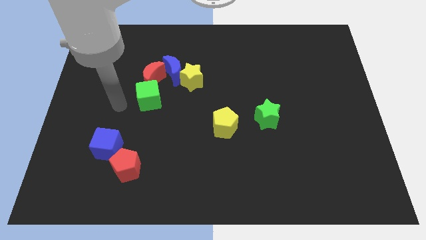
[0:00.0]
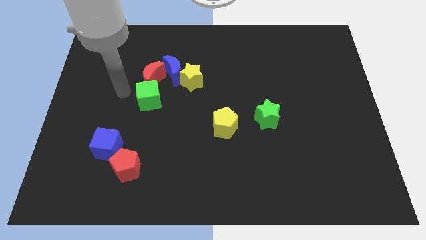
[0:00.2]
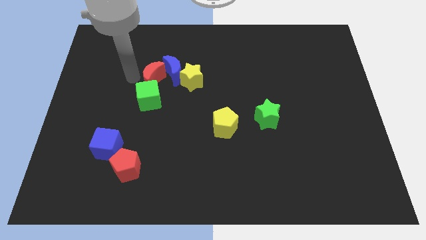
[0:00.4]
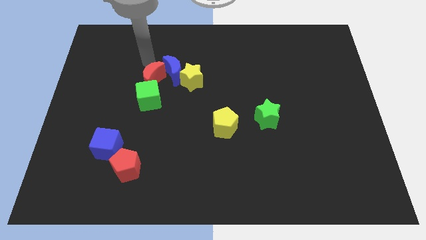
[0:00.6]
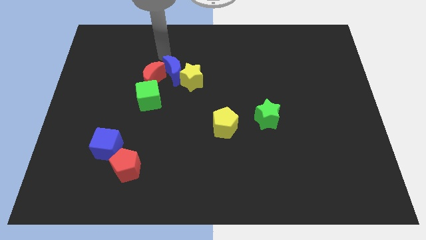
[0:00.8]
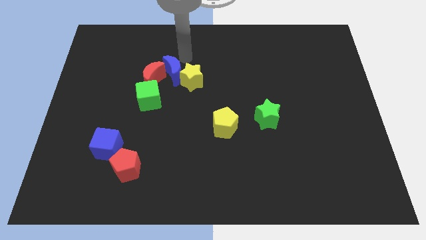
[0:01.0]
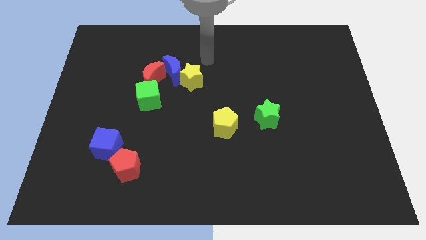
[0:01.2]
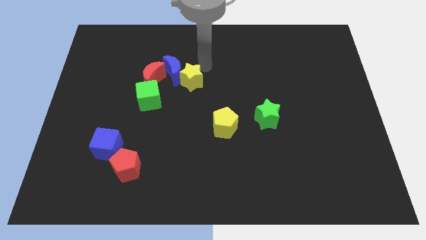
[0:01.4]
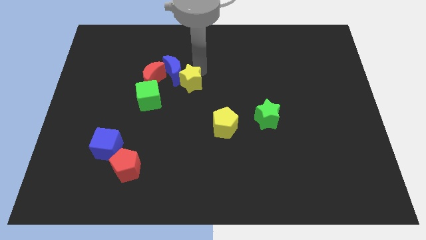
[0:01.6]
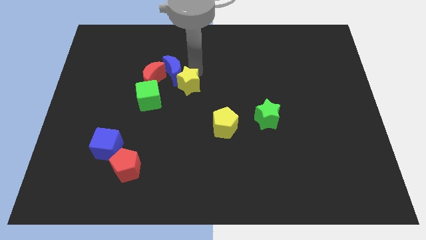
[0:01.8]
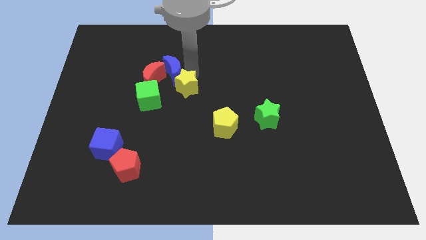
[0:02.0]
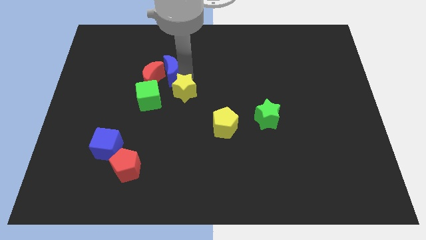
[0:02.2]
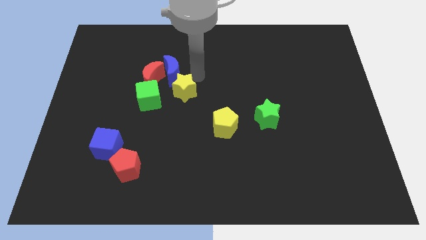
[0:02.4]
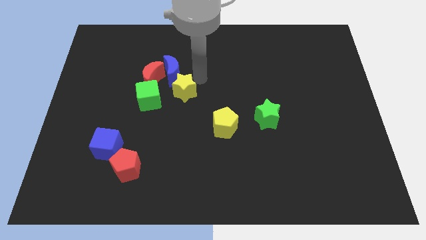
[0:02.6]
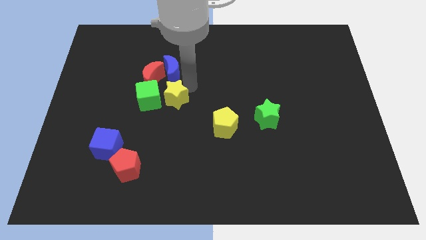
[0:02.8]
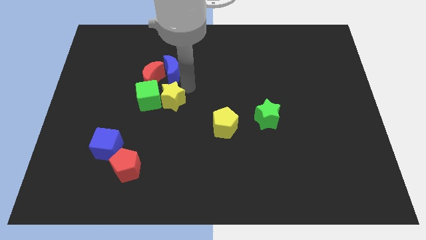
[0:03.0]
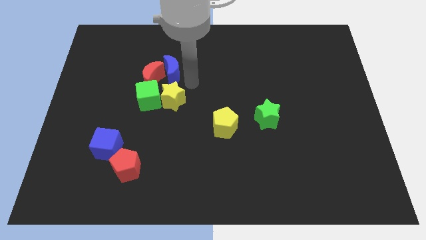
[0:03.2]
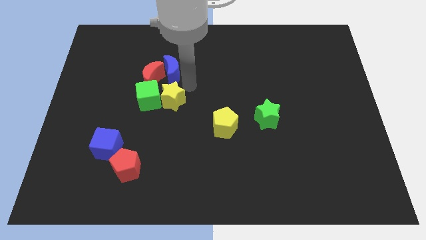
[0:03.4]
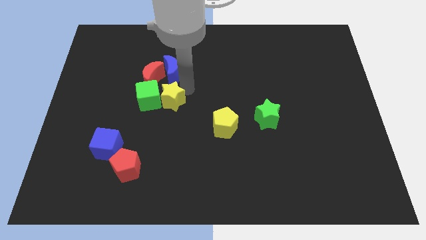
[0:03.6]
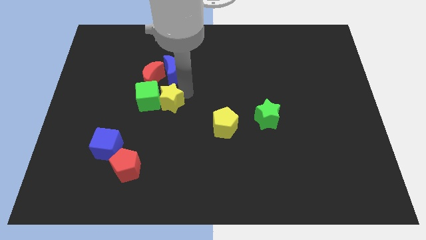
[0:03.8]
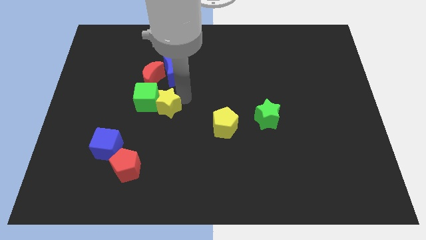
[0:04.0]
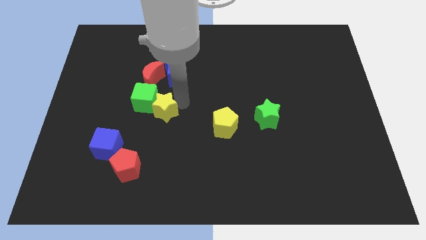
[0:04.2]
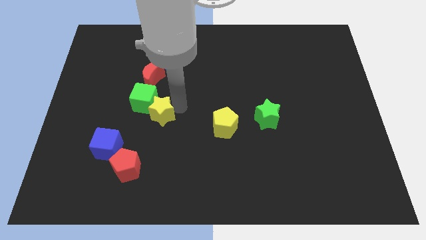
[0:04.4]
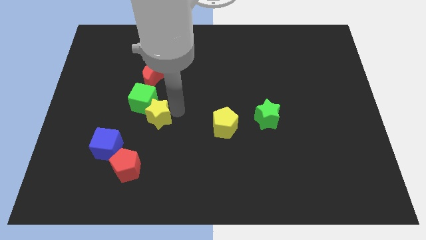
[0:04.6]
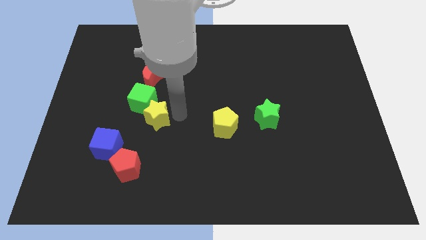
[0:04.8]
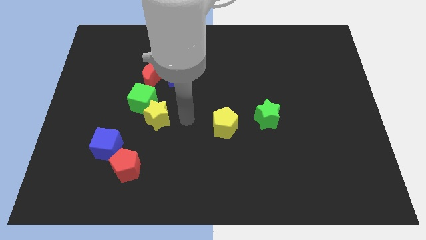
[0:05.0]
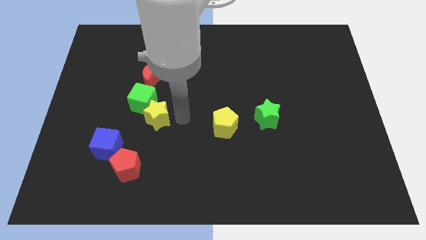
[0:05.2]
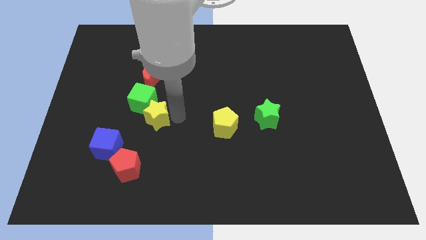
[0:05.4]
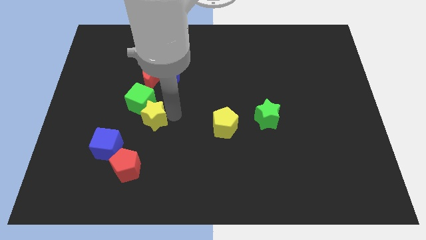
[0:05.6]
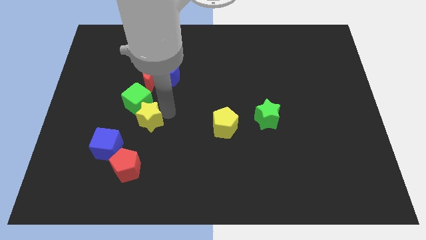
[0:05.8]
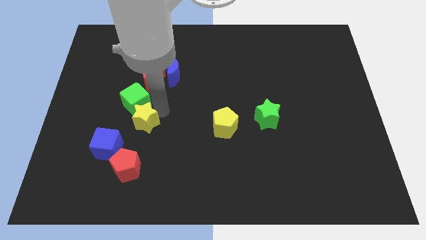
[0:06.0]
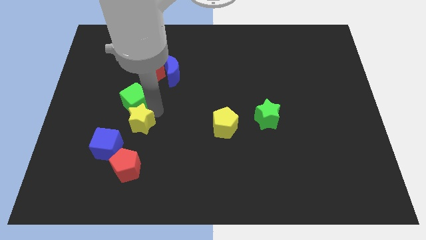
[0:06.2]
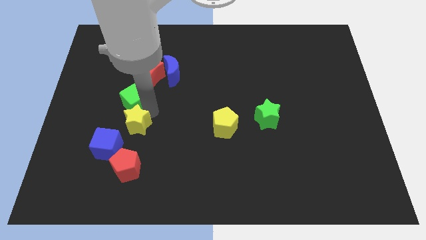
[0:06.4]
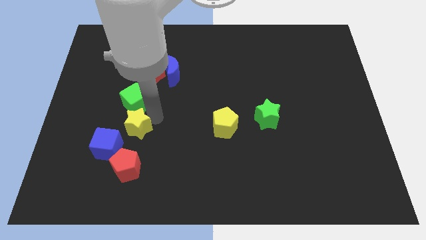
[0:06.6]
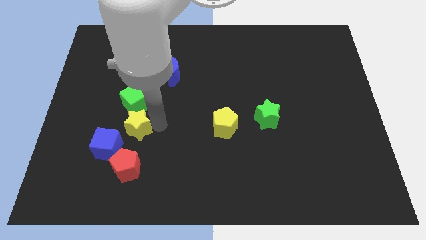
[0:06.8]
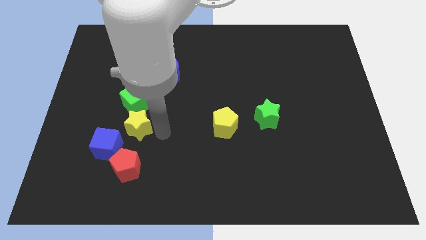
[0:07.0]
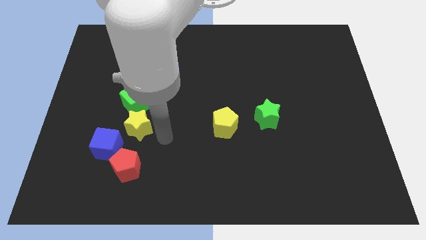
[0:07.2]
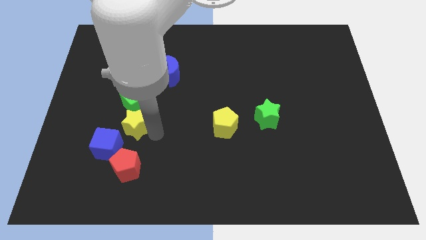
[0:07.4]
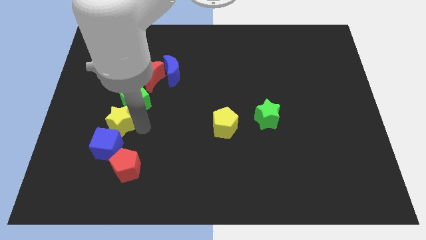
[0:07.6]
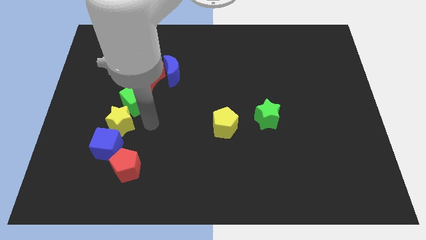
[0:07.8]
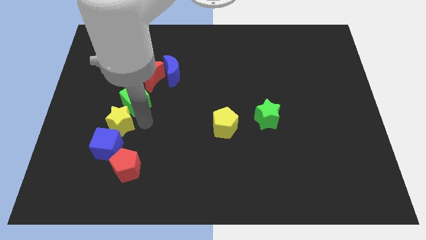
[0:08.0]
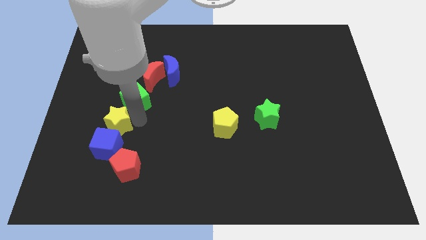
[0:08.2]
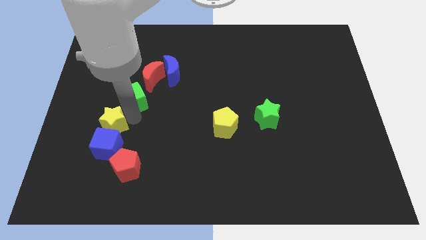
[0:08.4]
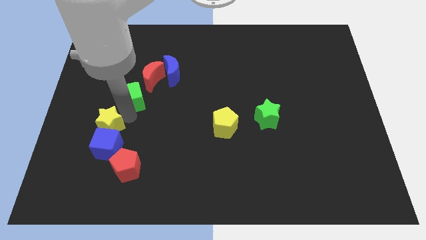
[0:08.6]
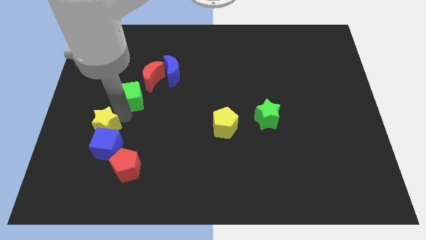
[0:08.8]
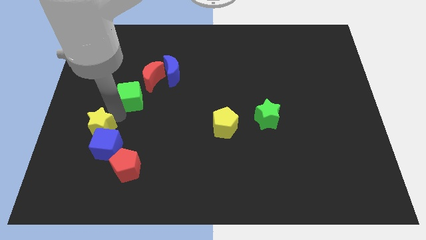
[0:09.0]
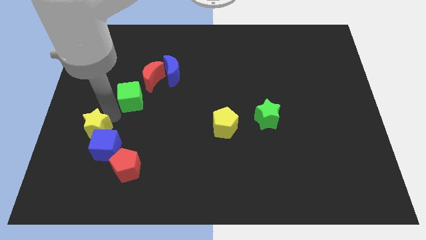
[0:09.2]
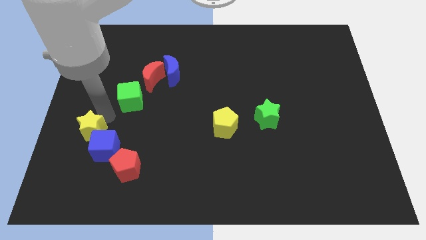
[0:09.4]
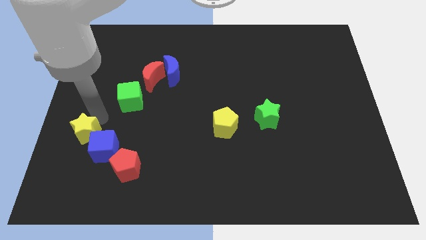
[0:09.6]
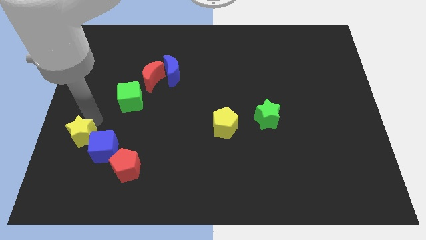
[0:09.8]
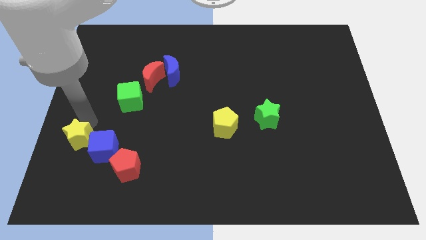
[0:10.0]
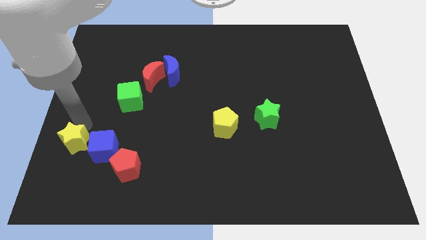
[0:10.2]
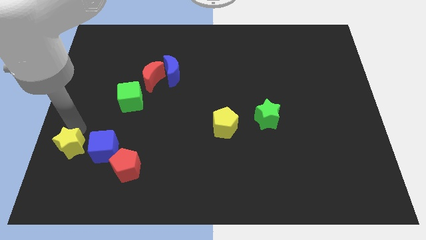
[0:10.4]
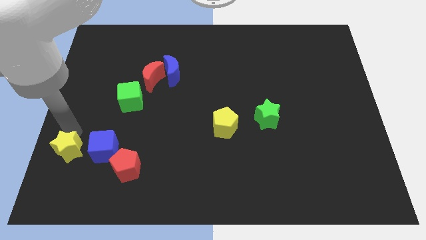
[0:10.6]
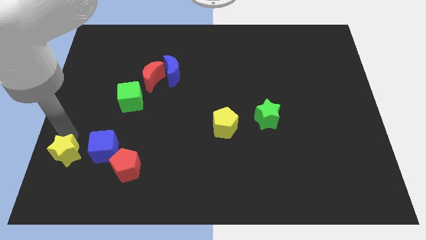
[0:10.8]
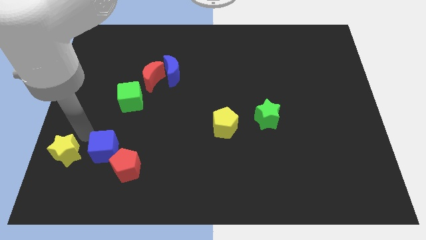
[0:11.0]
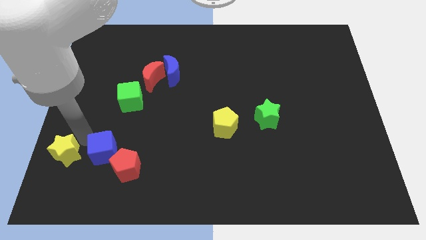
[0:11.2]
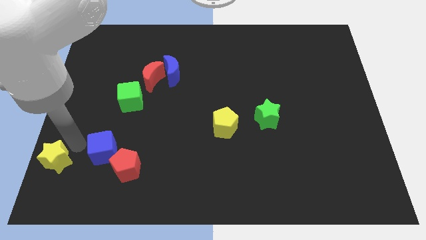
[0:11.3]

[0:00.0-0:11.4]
move the yellow star to the lower left corner

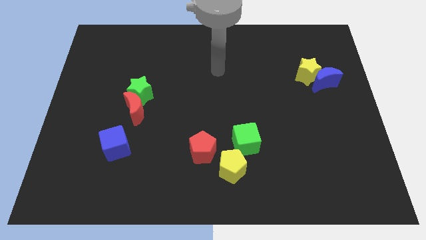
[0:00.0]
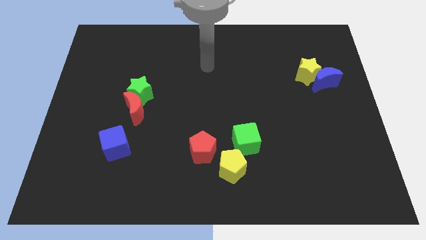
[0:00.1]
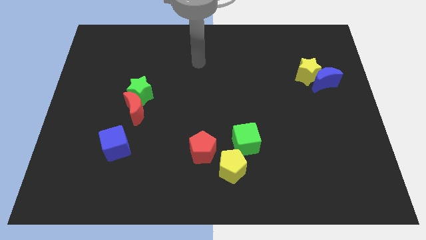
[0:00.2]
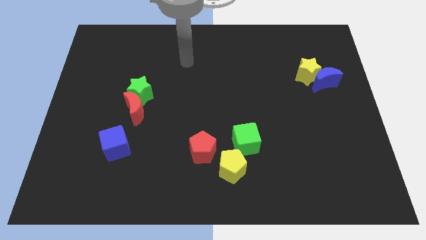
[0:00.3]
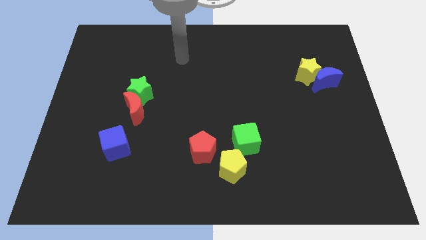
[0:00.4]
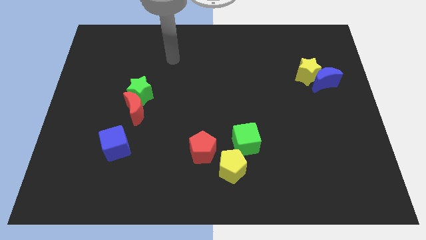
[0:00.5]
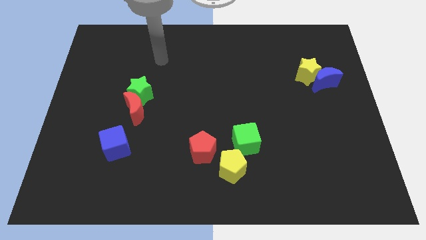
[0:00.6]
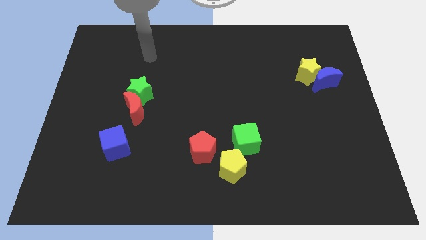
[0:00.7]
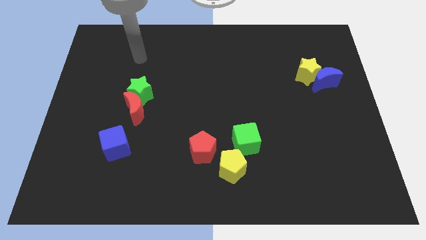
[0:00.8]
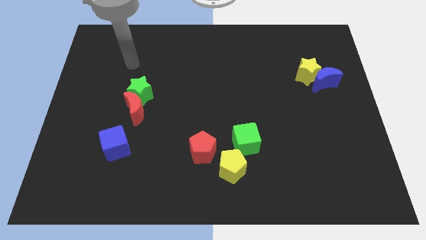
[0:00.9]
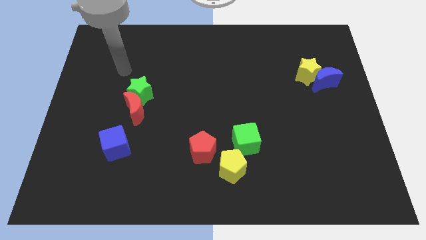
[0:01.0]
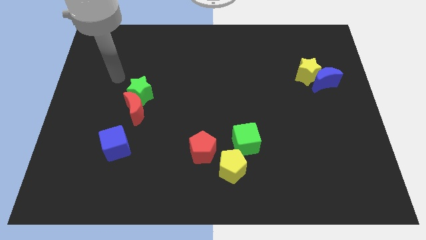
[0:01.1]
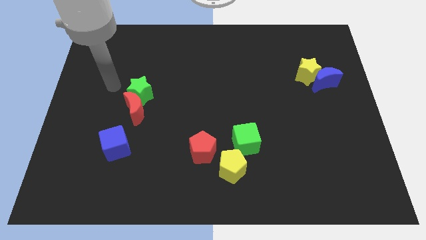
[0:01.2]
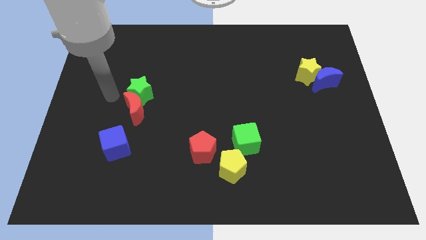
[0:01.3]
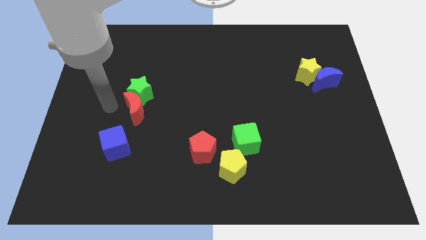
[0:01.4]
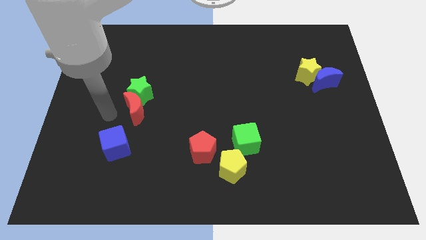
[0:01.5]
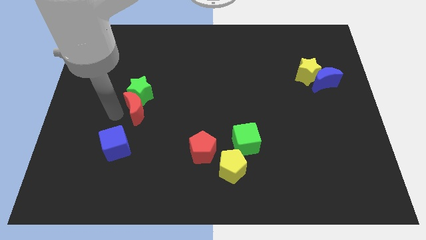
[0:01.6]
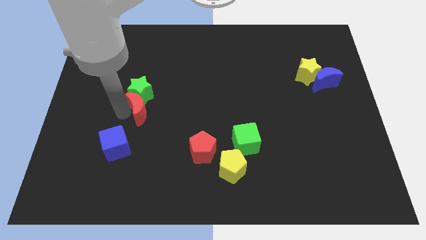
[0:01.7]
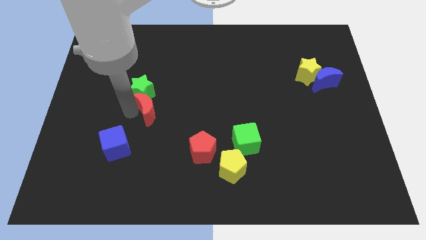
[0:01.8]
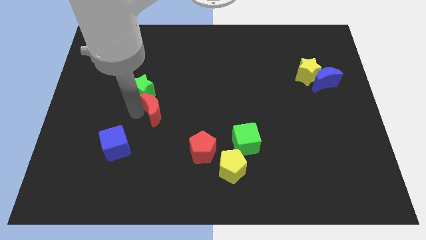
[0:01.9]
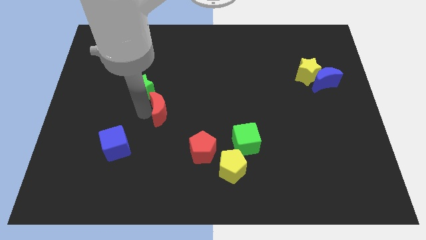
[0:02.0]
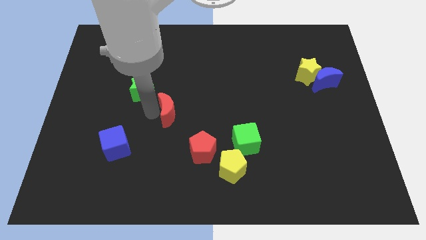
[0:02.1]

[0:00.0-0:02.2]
push the red moon to the center of the board
